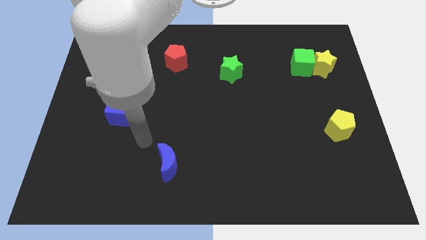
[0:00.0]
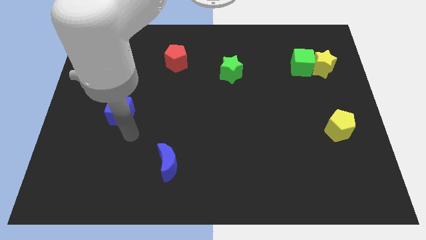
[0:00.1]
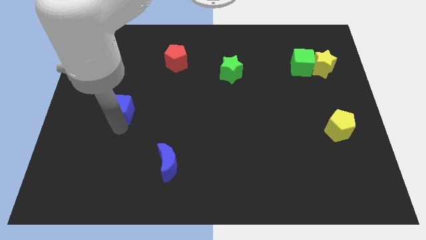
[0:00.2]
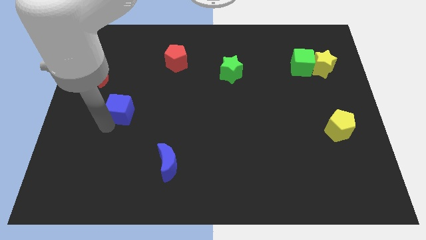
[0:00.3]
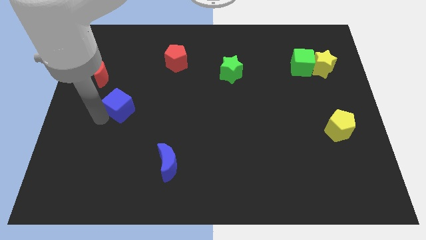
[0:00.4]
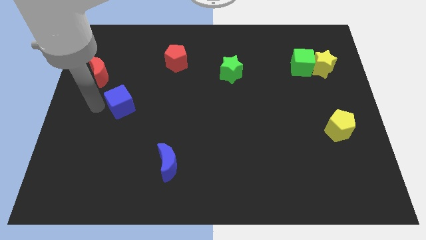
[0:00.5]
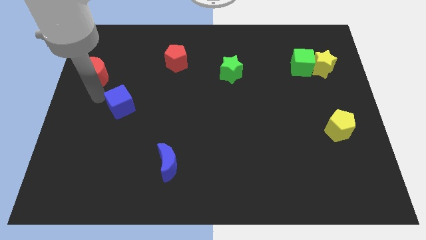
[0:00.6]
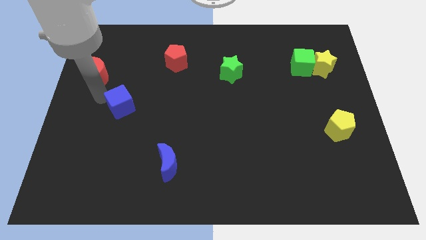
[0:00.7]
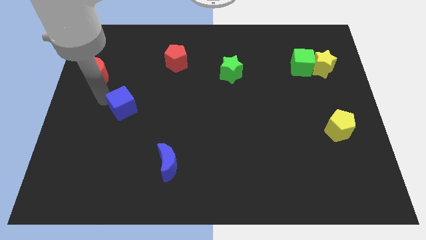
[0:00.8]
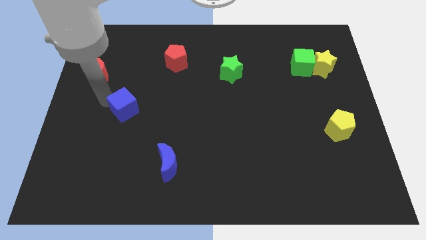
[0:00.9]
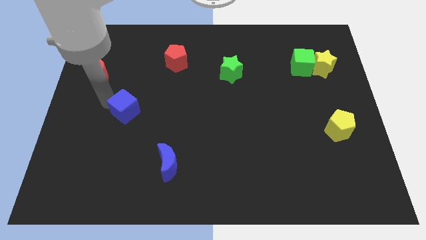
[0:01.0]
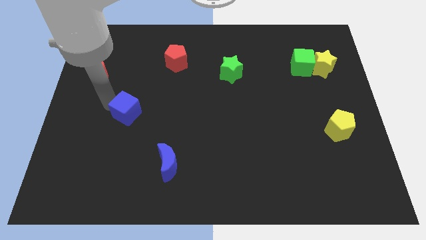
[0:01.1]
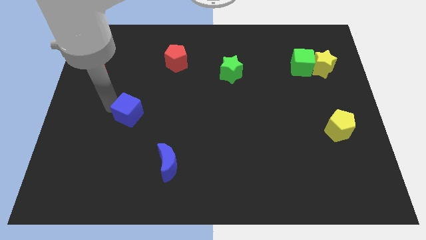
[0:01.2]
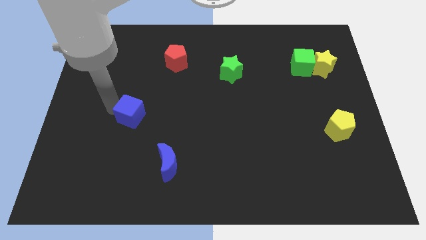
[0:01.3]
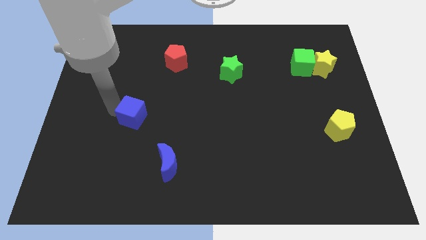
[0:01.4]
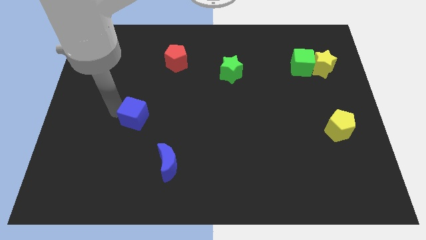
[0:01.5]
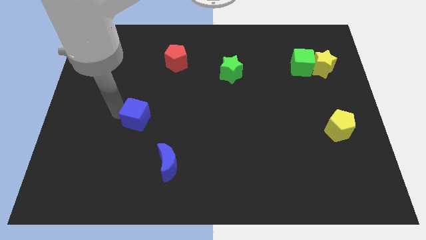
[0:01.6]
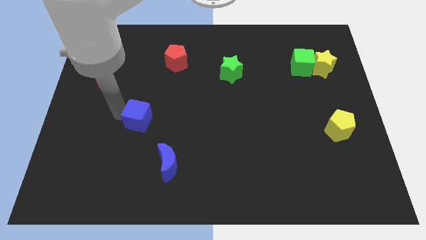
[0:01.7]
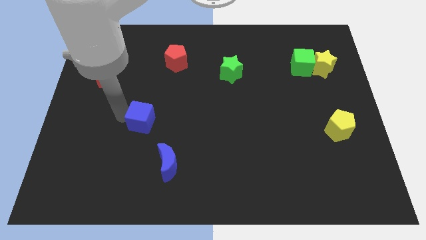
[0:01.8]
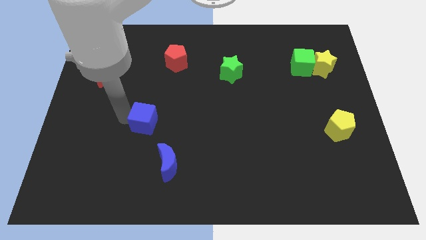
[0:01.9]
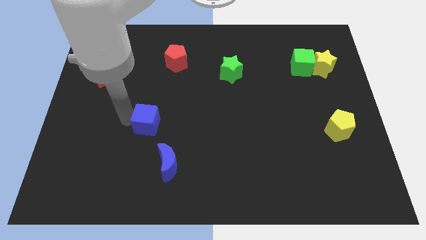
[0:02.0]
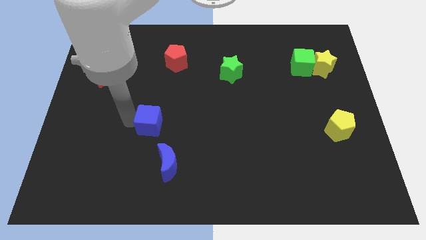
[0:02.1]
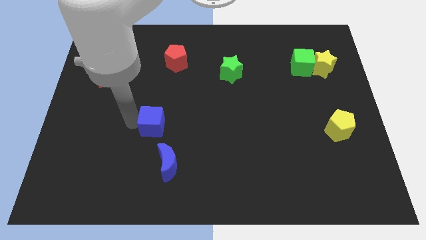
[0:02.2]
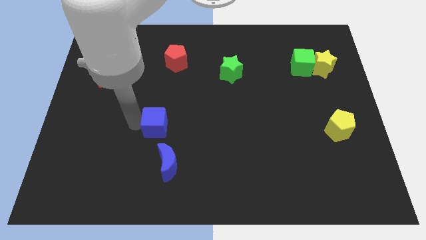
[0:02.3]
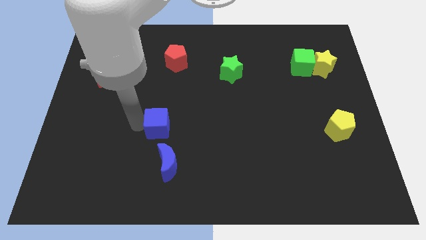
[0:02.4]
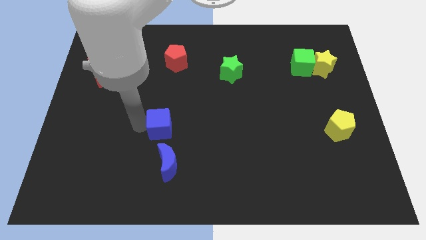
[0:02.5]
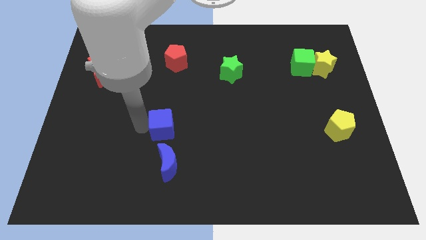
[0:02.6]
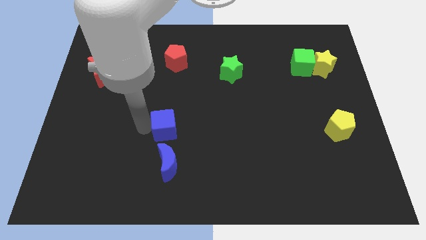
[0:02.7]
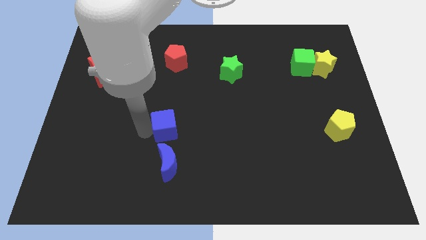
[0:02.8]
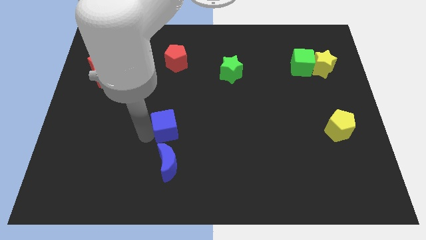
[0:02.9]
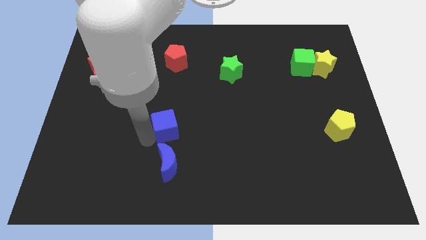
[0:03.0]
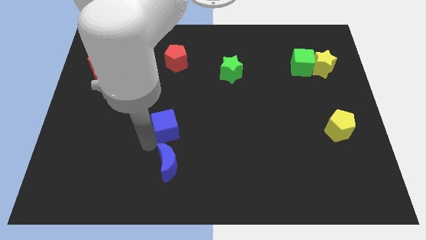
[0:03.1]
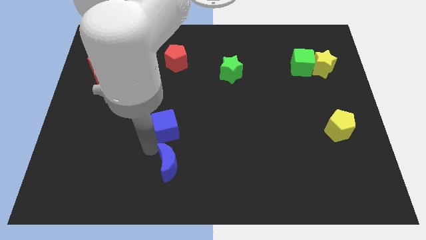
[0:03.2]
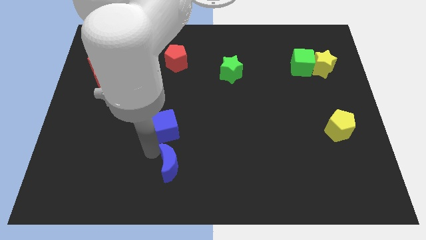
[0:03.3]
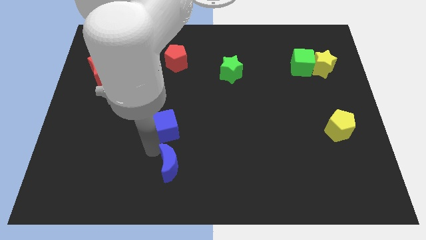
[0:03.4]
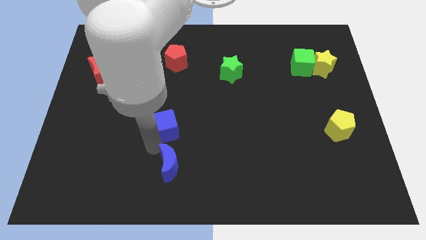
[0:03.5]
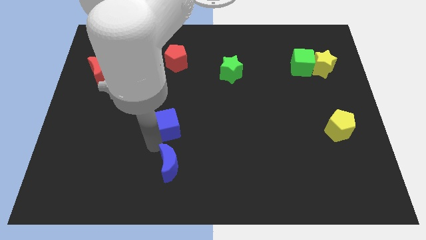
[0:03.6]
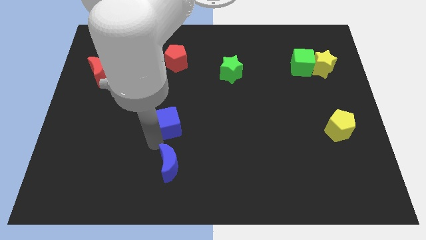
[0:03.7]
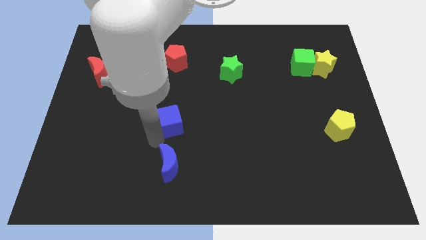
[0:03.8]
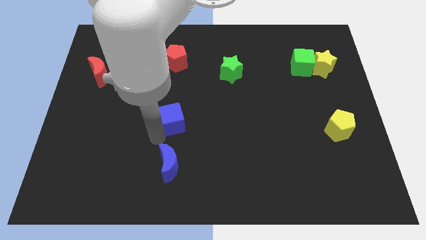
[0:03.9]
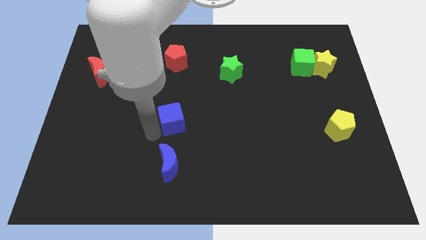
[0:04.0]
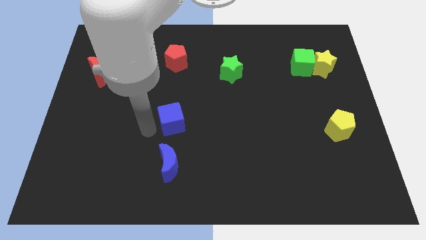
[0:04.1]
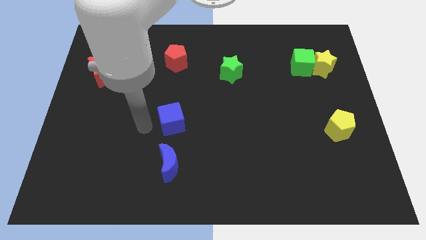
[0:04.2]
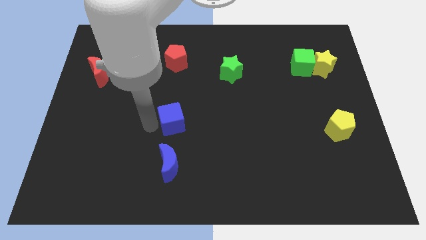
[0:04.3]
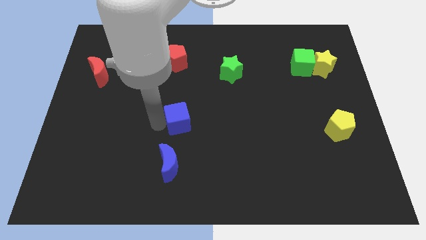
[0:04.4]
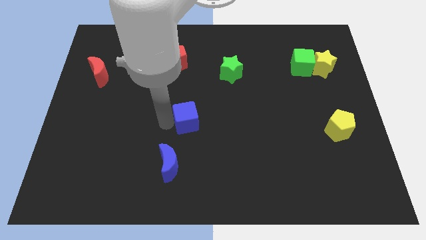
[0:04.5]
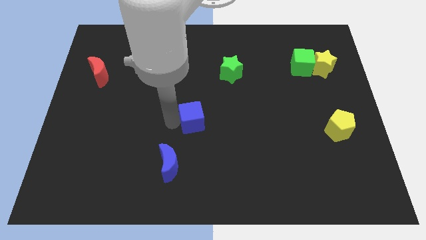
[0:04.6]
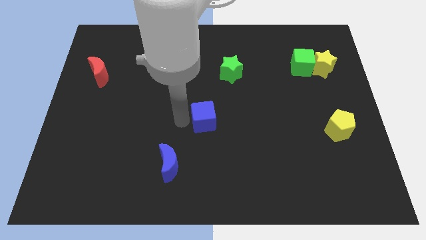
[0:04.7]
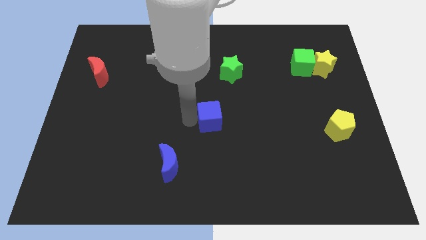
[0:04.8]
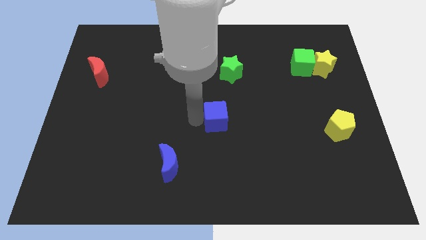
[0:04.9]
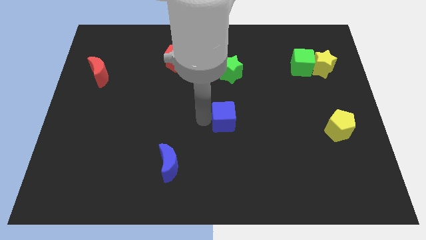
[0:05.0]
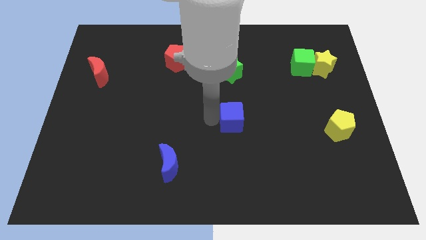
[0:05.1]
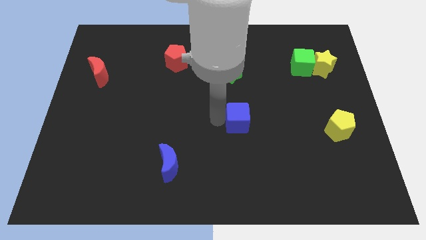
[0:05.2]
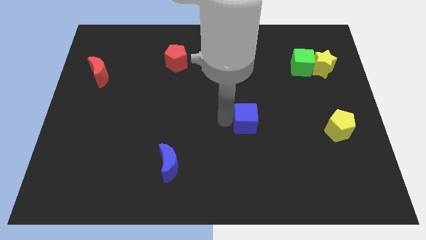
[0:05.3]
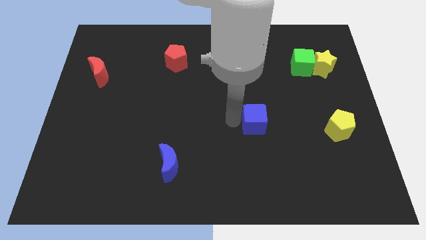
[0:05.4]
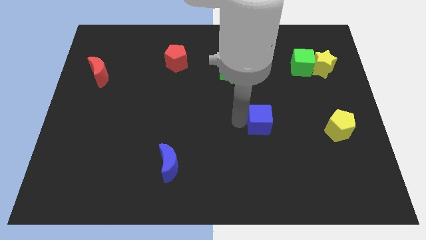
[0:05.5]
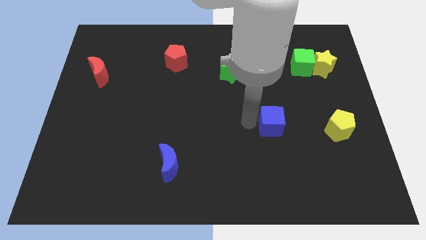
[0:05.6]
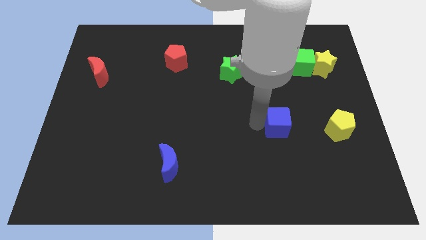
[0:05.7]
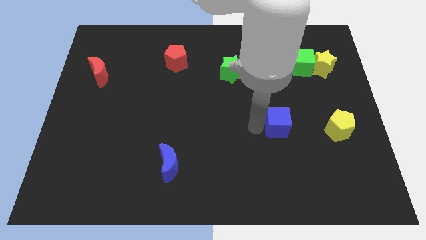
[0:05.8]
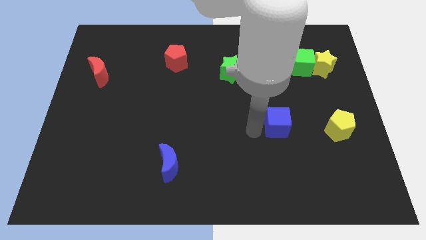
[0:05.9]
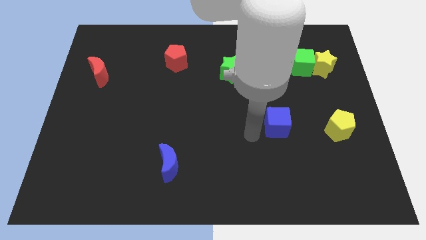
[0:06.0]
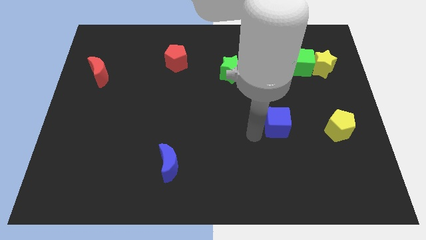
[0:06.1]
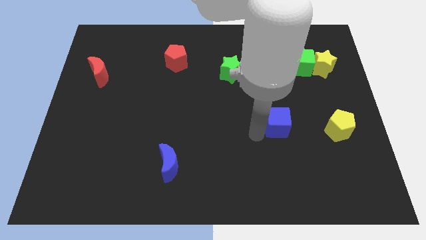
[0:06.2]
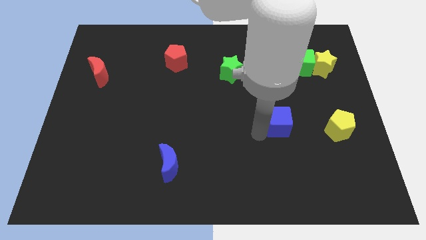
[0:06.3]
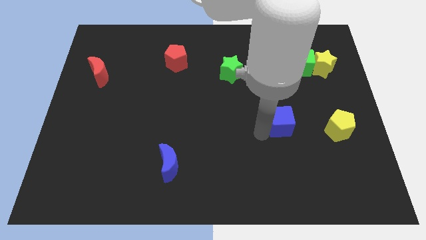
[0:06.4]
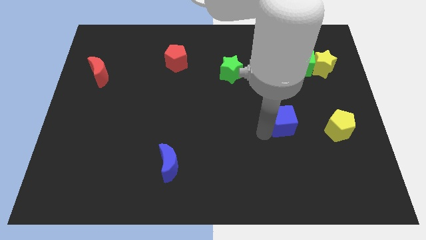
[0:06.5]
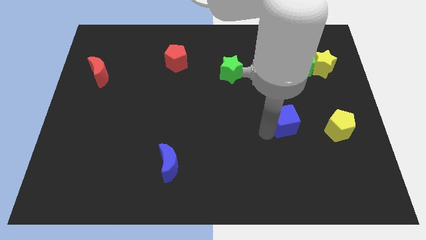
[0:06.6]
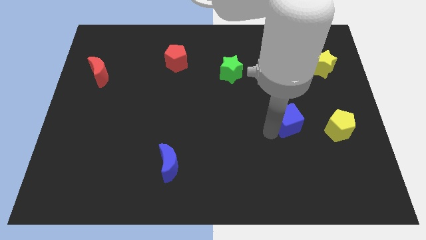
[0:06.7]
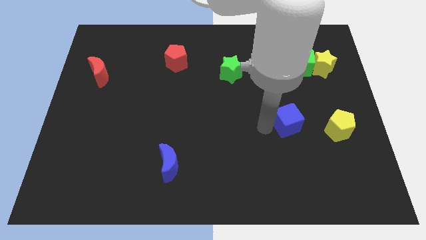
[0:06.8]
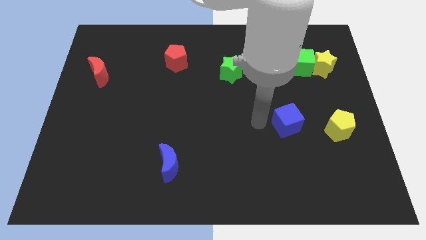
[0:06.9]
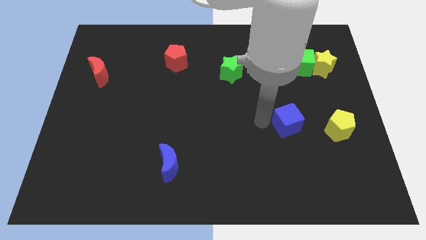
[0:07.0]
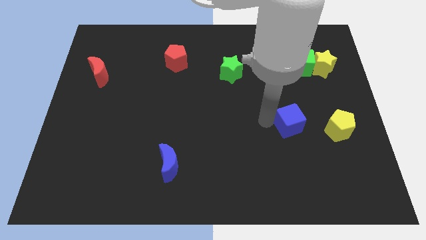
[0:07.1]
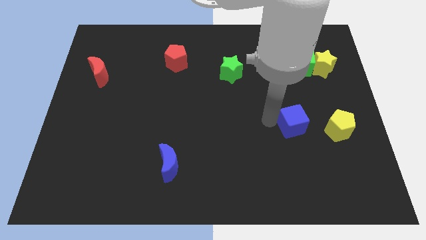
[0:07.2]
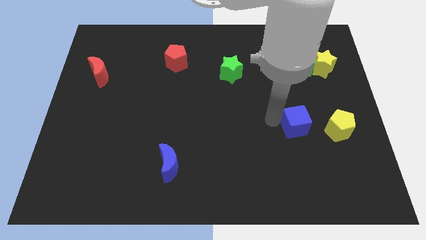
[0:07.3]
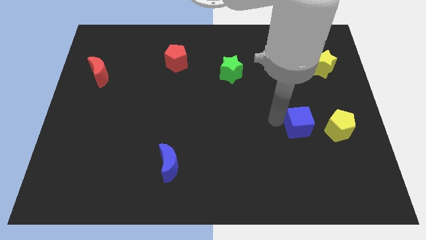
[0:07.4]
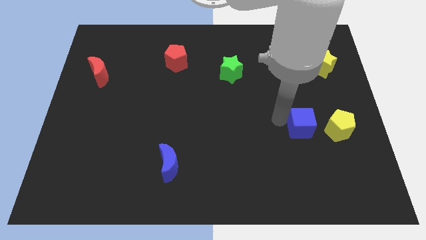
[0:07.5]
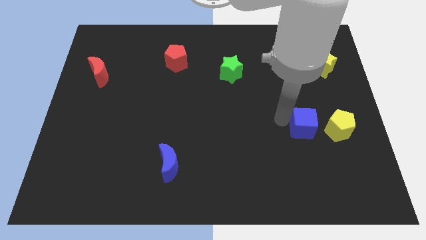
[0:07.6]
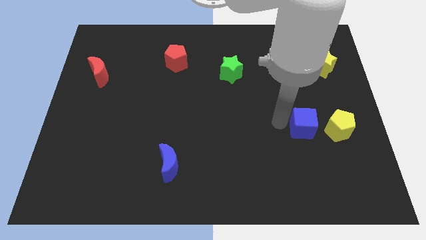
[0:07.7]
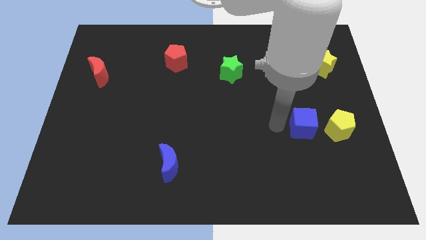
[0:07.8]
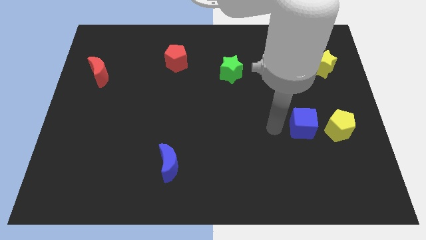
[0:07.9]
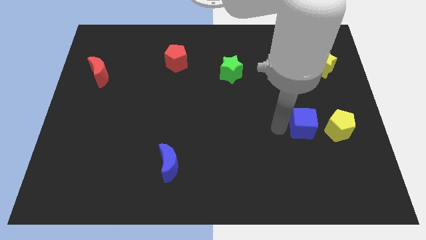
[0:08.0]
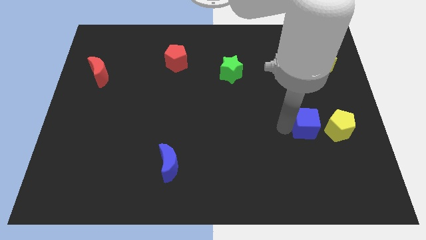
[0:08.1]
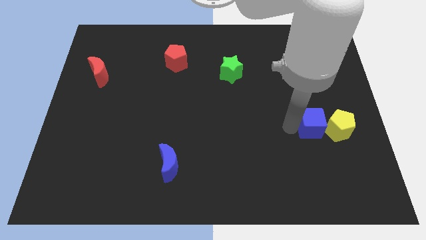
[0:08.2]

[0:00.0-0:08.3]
push the blue cube towards the yellow pentagon
